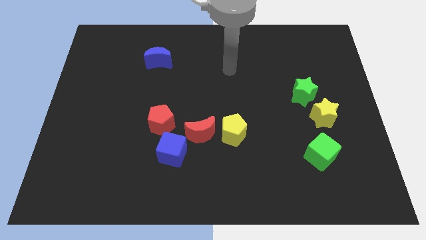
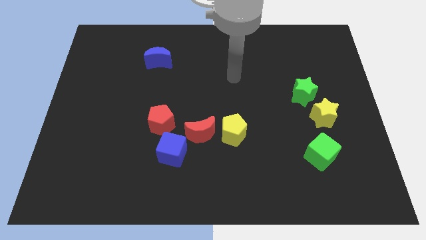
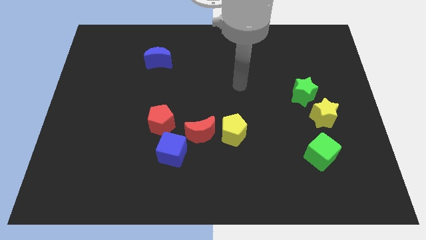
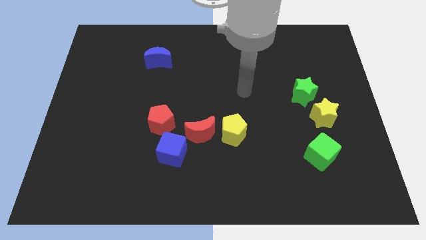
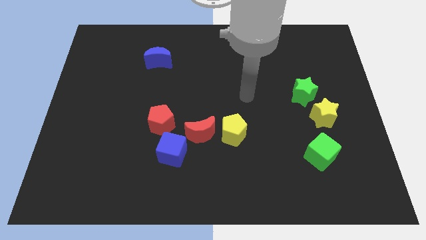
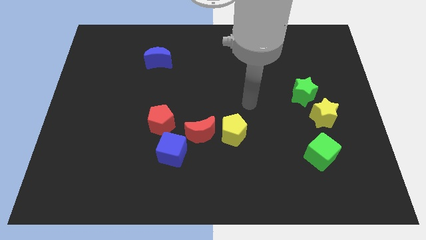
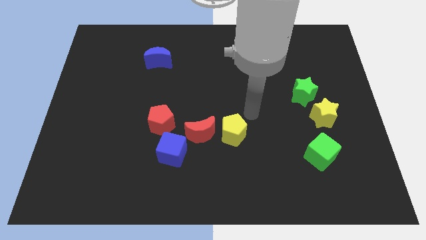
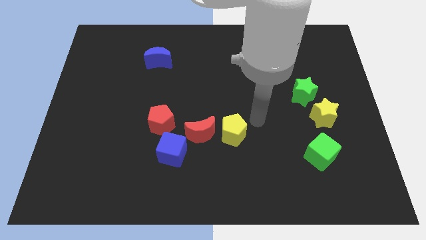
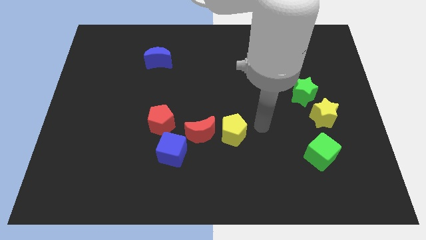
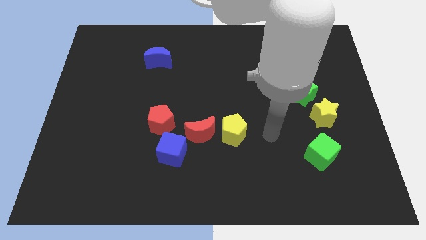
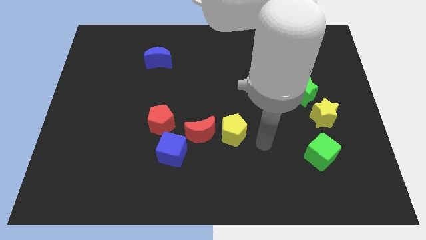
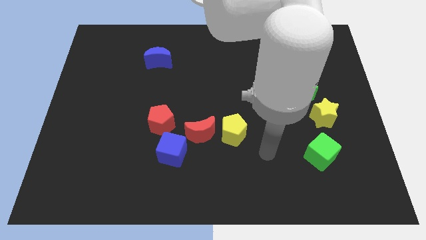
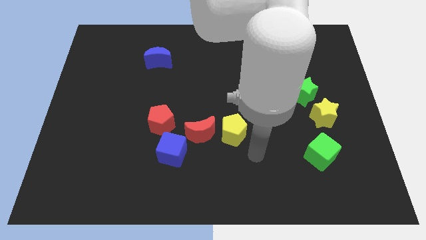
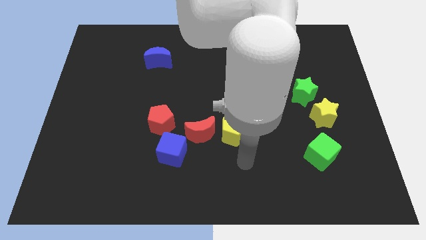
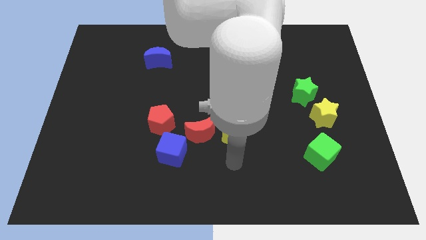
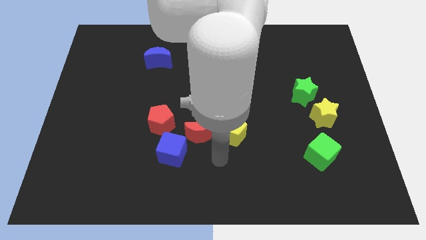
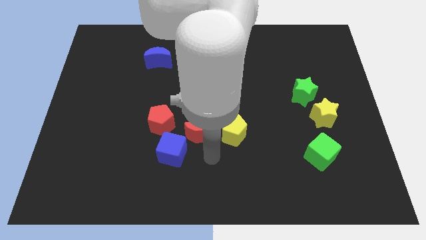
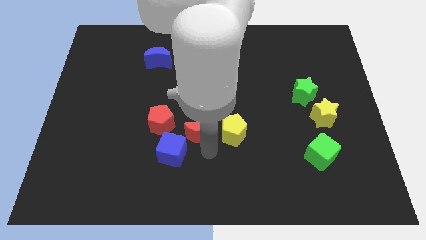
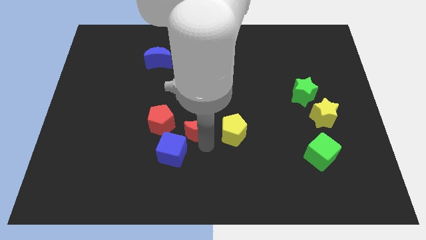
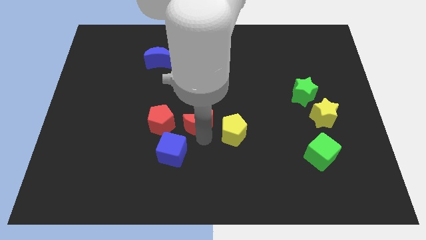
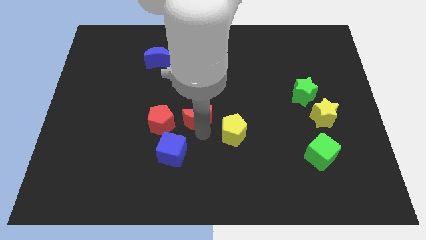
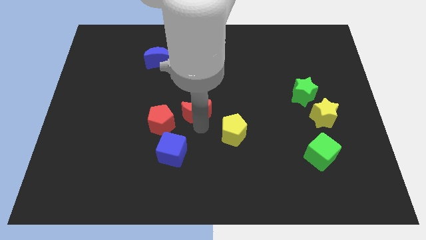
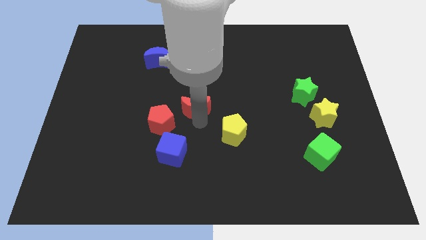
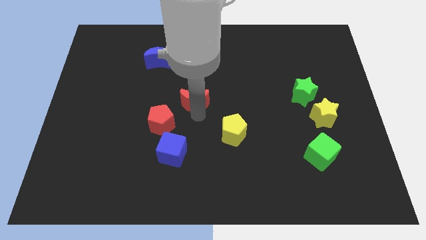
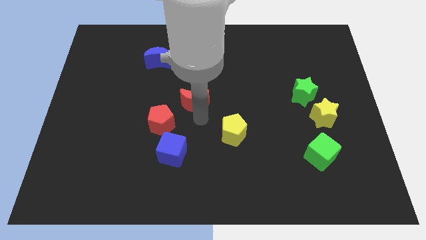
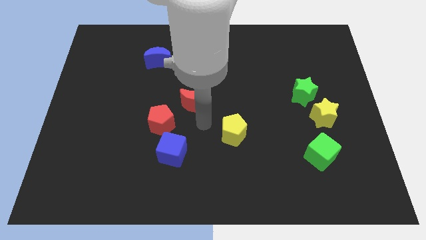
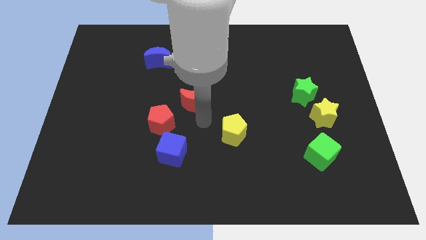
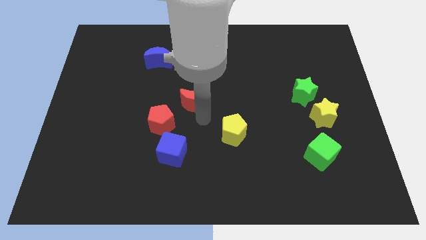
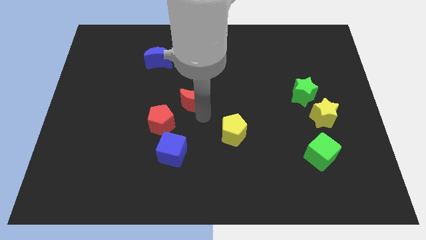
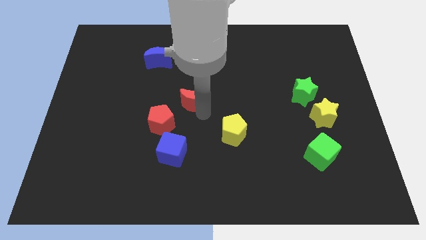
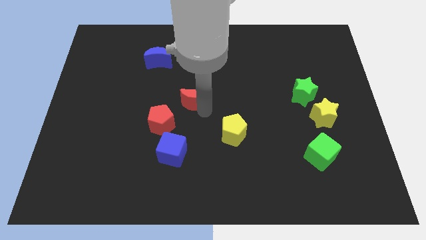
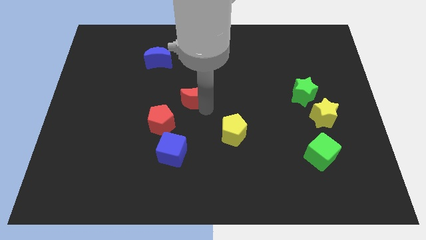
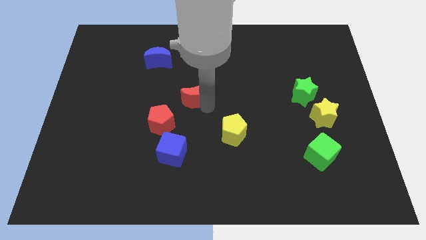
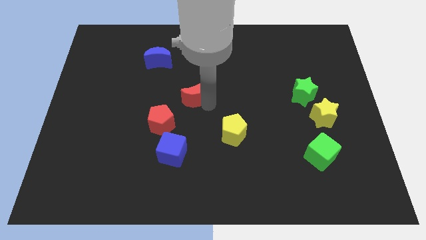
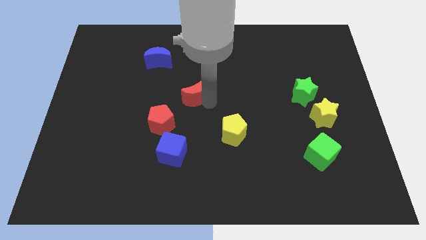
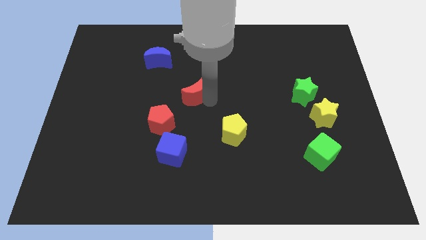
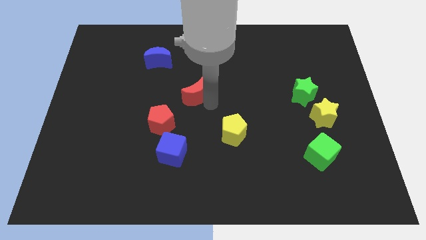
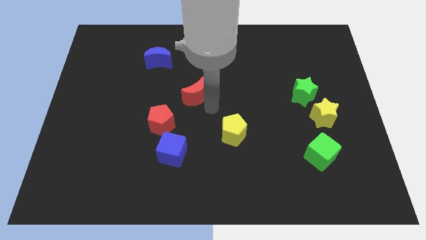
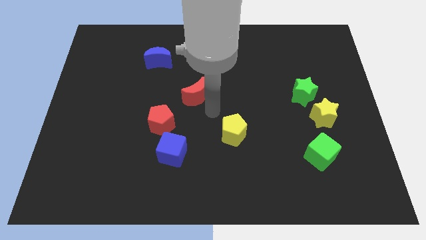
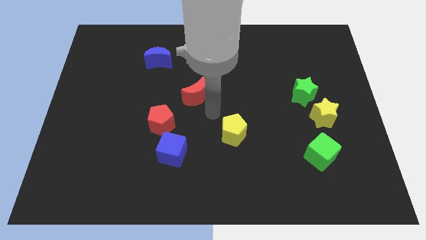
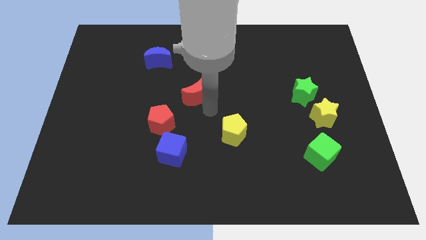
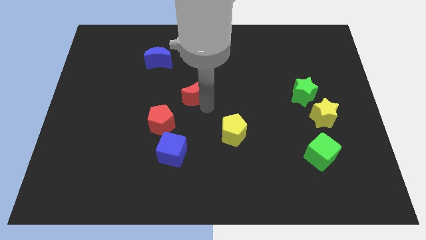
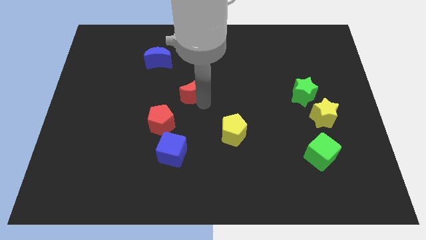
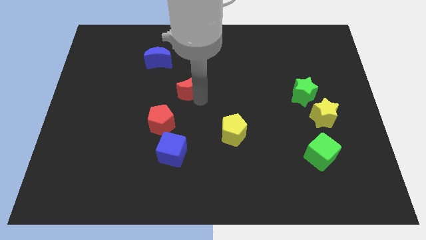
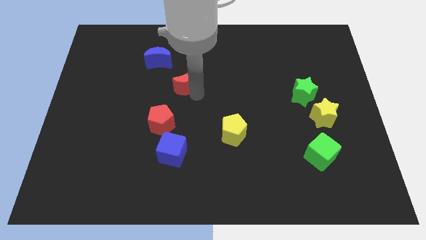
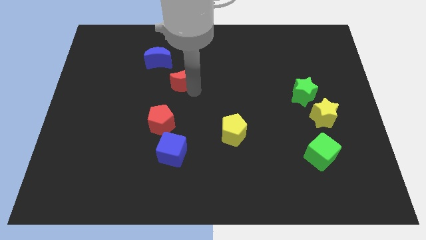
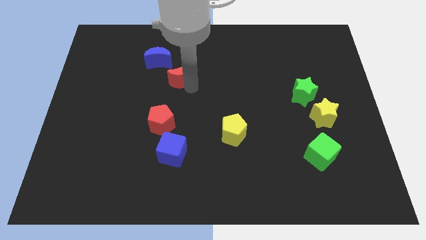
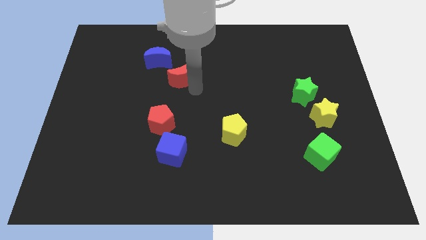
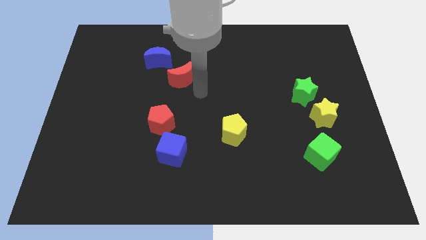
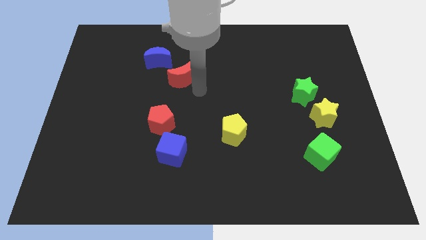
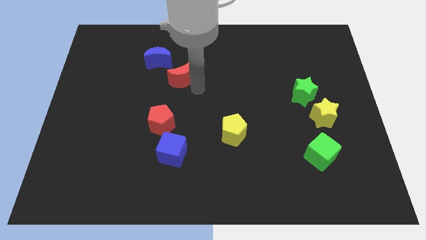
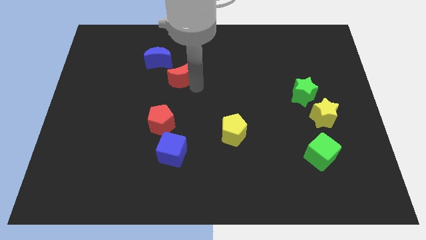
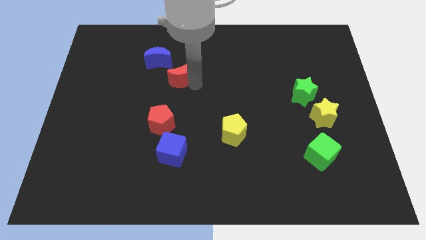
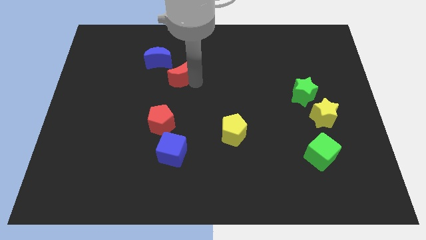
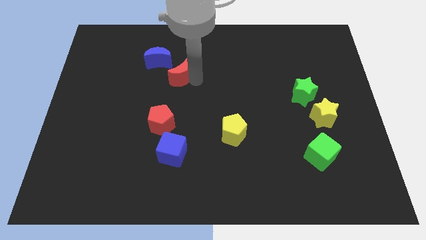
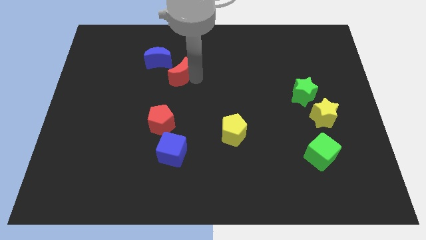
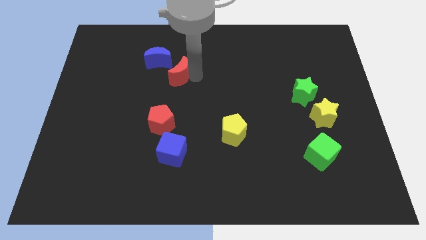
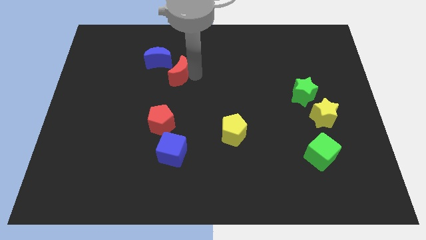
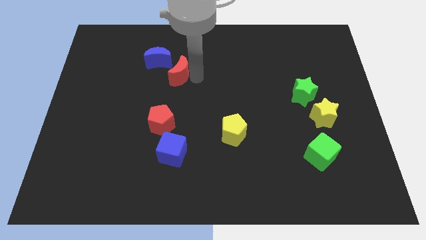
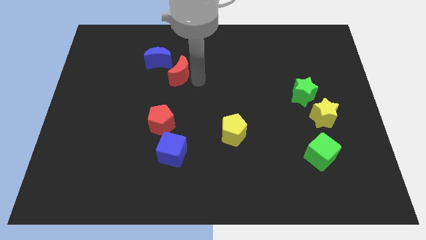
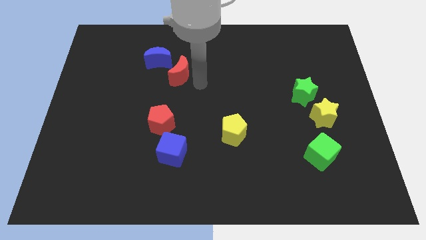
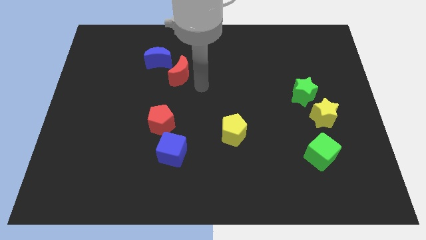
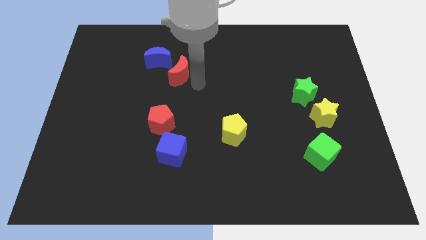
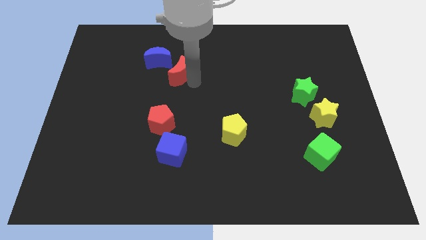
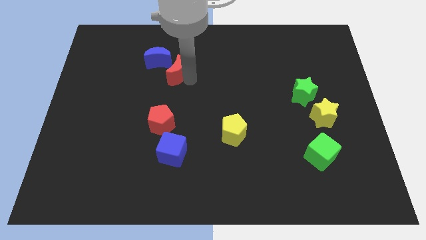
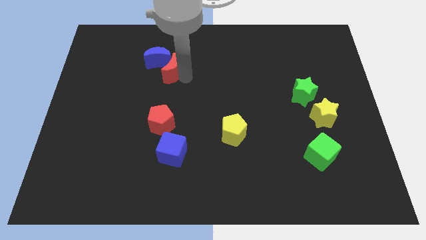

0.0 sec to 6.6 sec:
move the red moon next to the blue moon
